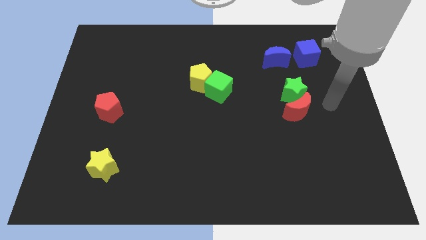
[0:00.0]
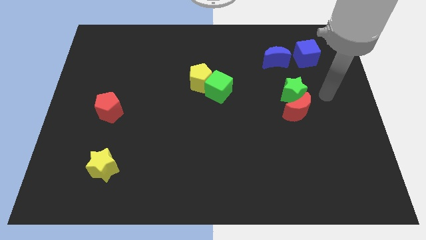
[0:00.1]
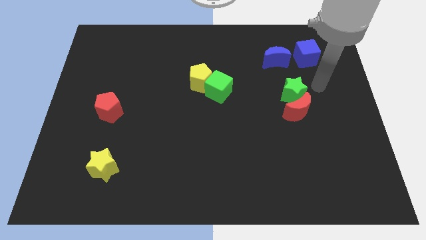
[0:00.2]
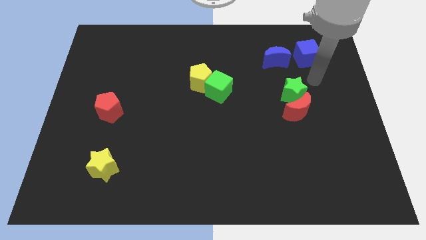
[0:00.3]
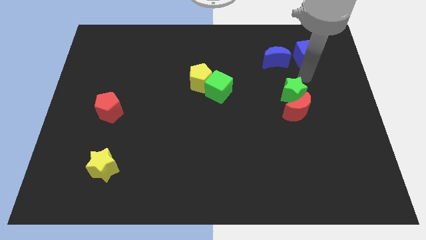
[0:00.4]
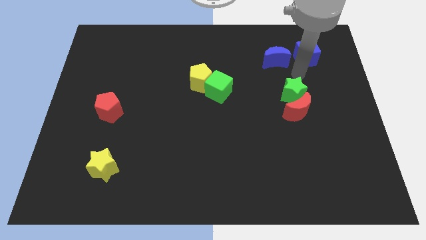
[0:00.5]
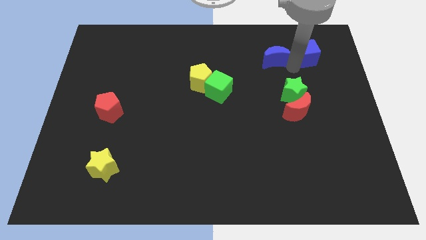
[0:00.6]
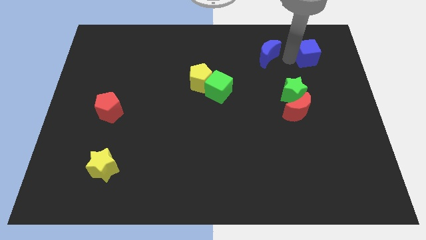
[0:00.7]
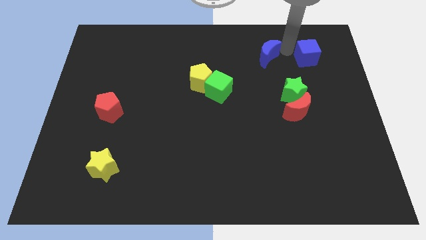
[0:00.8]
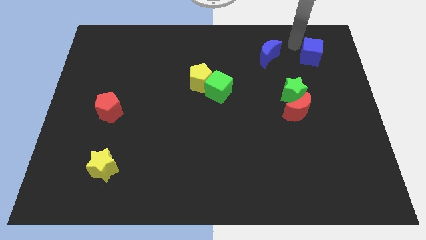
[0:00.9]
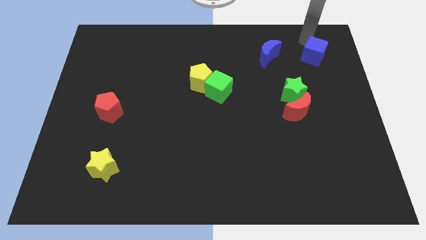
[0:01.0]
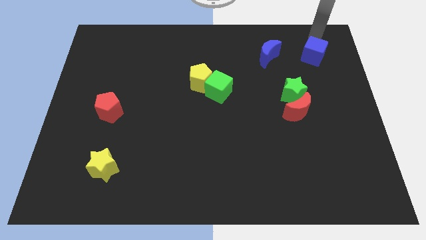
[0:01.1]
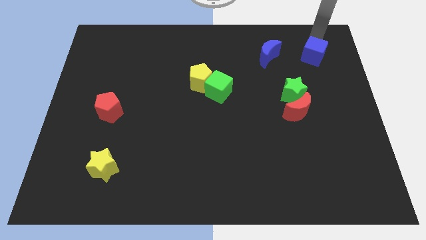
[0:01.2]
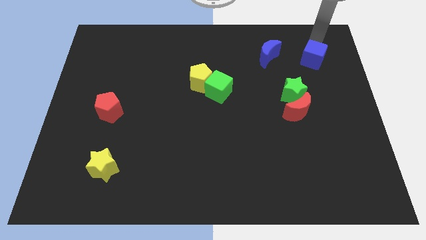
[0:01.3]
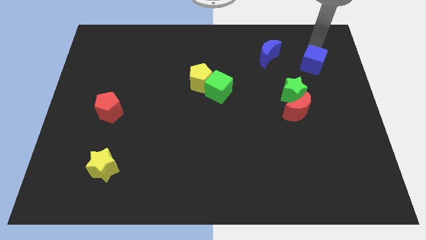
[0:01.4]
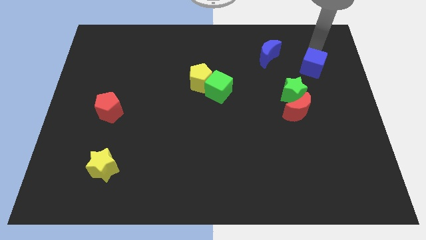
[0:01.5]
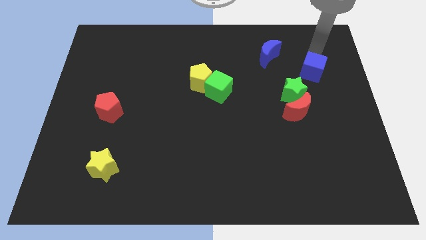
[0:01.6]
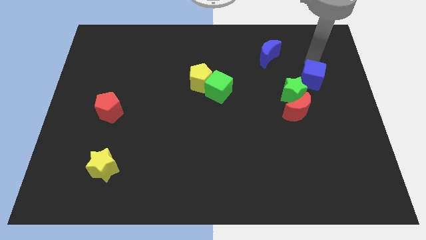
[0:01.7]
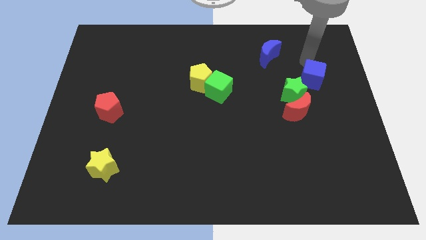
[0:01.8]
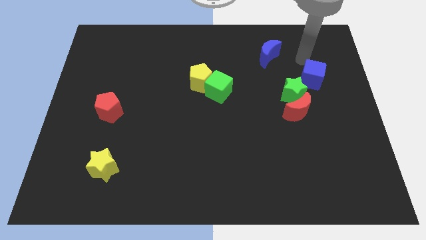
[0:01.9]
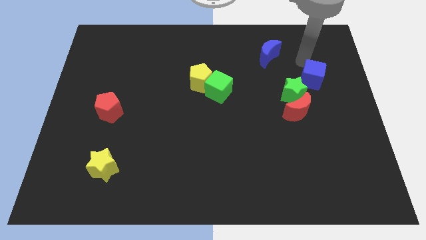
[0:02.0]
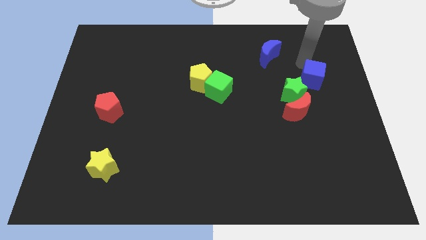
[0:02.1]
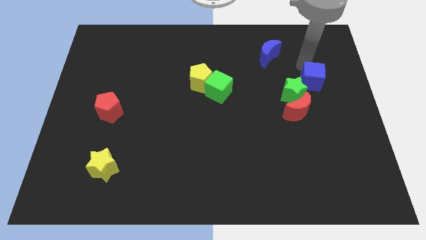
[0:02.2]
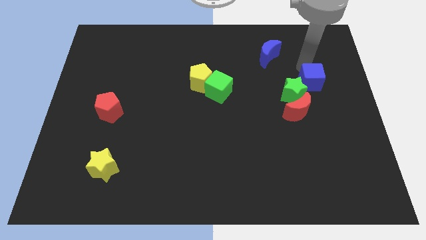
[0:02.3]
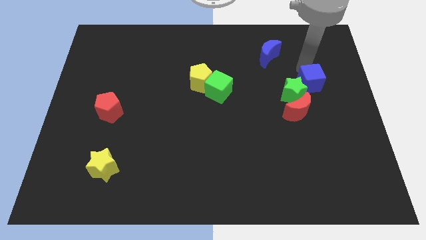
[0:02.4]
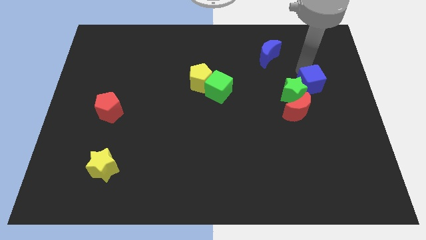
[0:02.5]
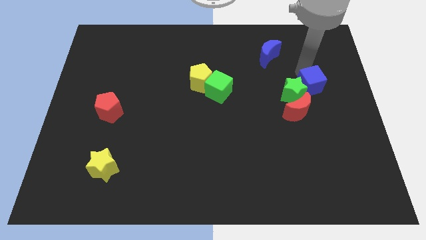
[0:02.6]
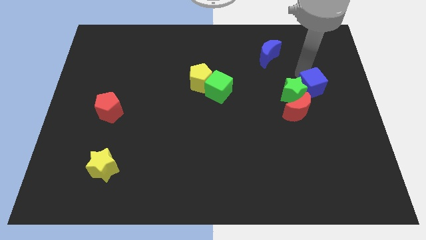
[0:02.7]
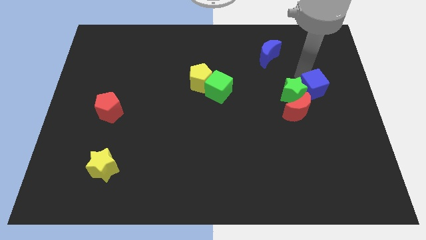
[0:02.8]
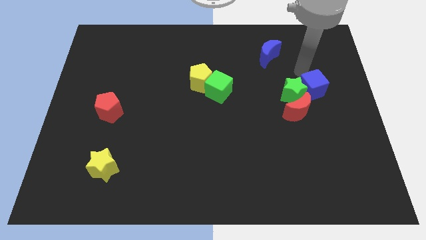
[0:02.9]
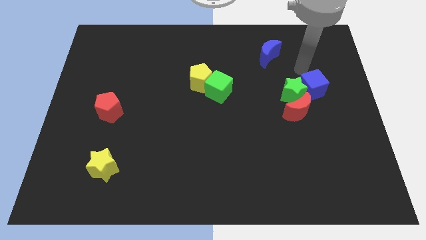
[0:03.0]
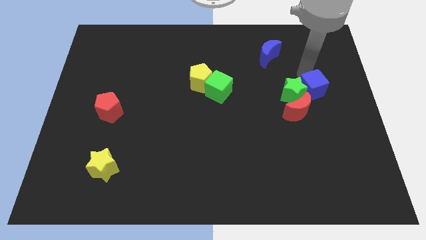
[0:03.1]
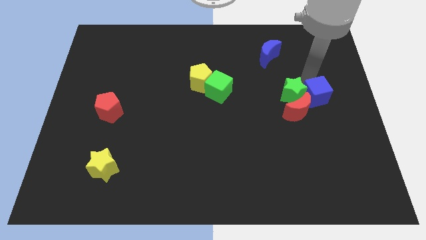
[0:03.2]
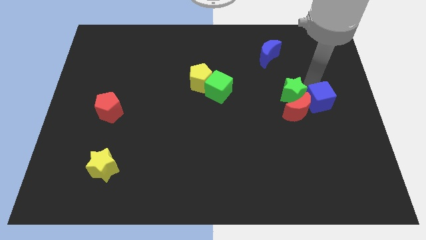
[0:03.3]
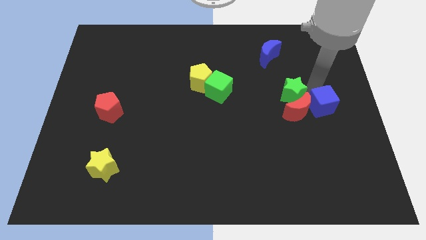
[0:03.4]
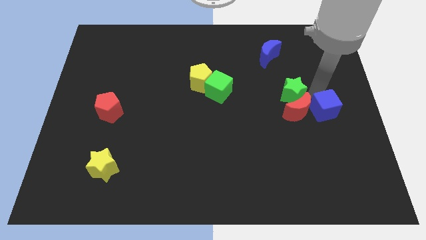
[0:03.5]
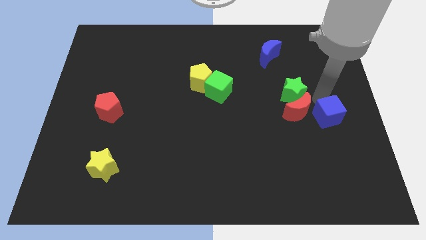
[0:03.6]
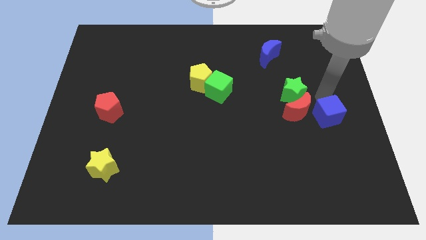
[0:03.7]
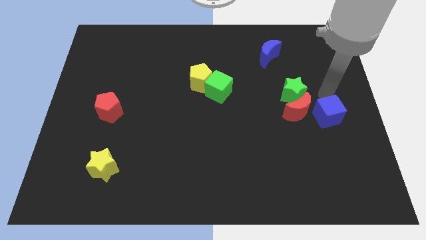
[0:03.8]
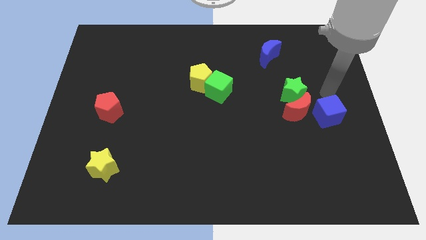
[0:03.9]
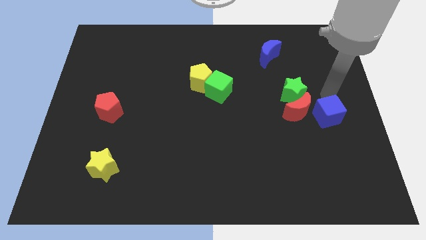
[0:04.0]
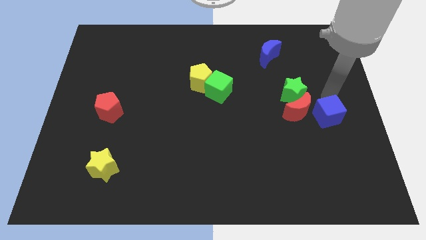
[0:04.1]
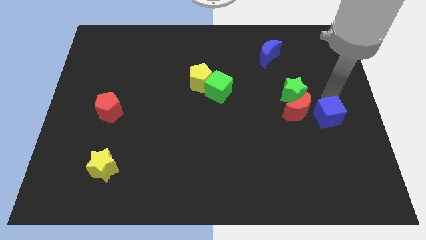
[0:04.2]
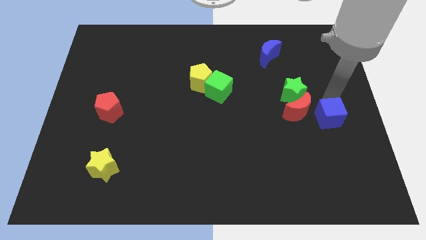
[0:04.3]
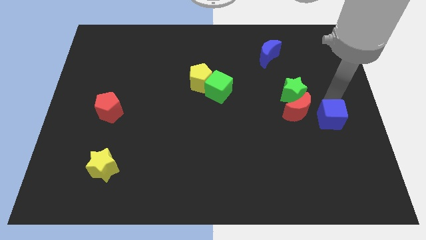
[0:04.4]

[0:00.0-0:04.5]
slide the blue cube downwards

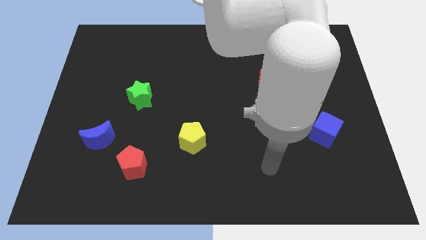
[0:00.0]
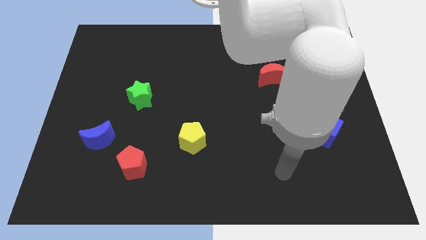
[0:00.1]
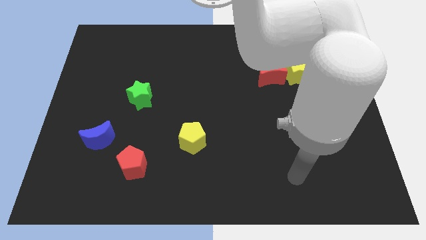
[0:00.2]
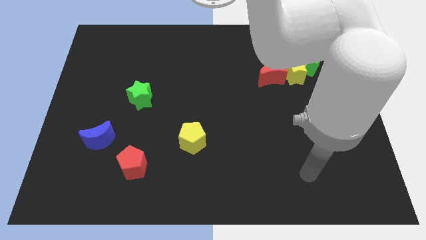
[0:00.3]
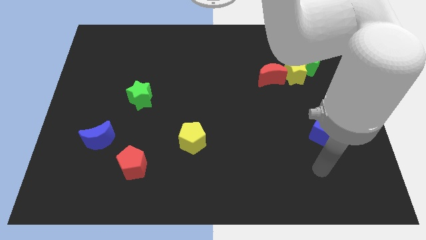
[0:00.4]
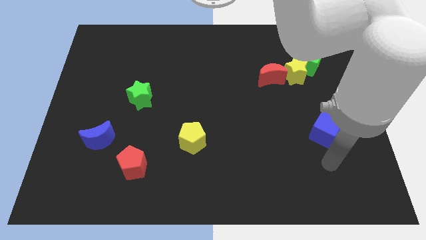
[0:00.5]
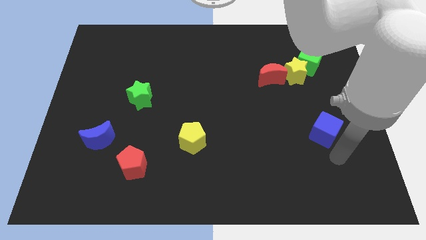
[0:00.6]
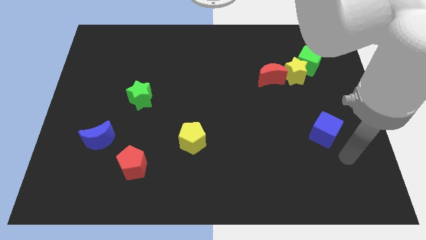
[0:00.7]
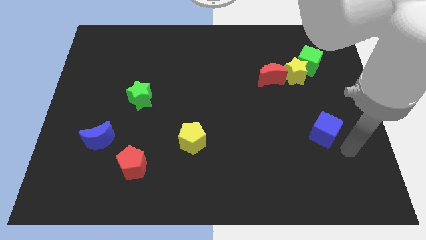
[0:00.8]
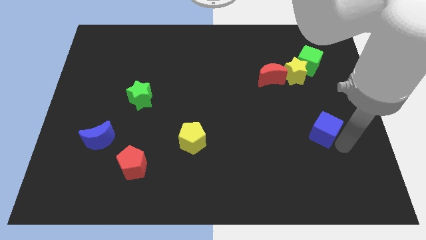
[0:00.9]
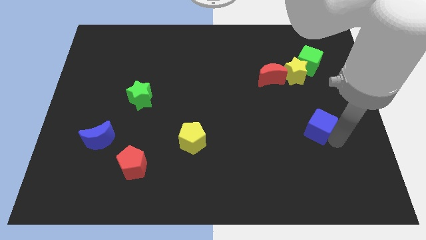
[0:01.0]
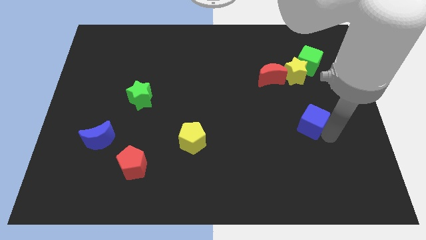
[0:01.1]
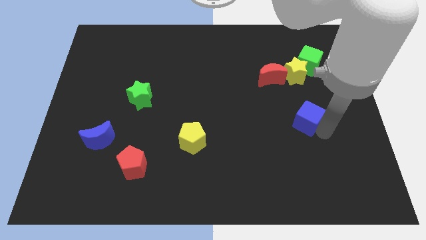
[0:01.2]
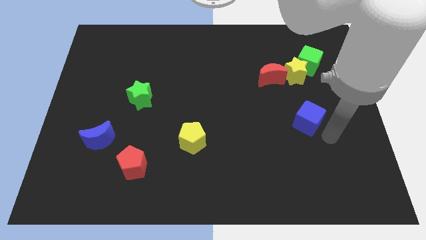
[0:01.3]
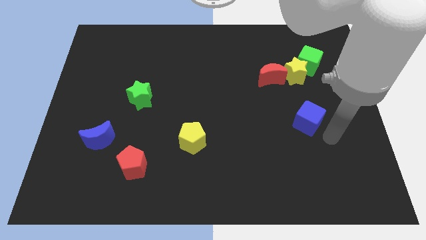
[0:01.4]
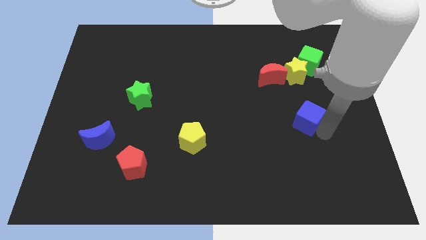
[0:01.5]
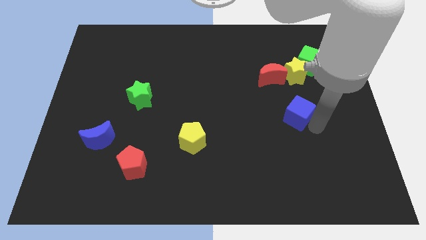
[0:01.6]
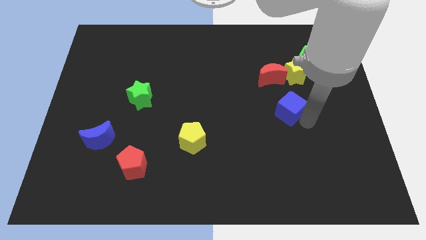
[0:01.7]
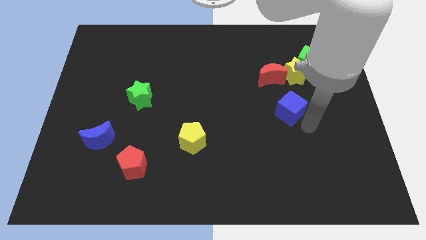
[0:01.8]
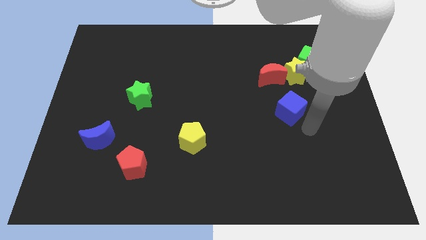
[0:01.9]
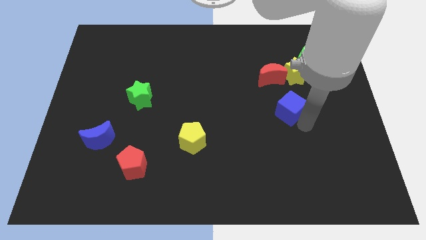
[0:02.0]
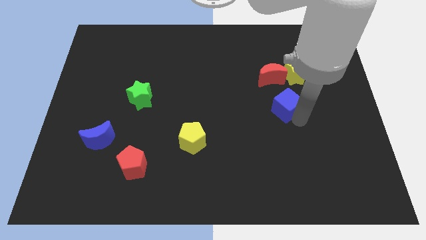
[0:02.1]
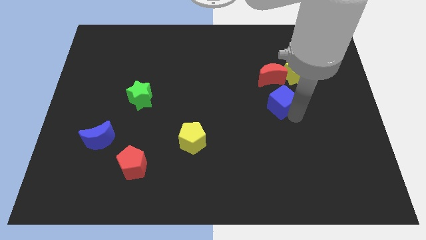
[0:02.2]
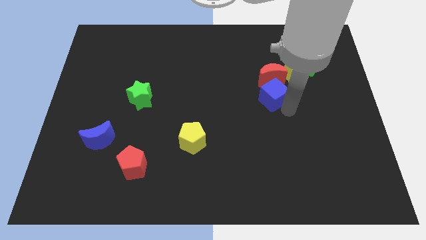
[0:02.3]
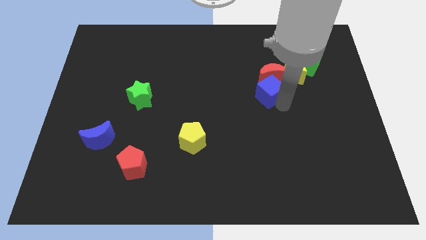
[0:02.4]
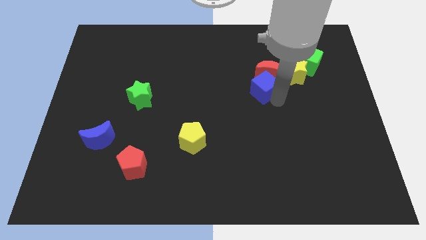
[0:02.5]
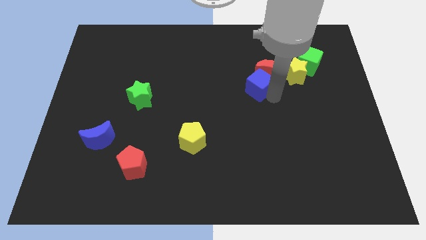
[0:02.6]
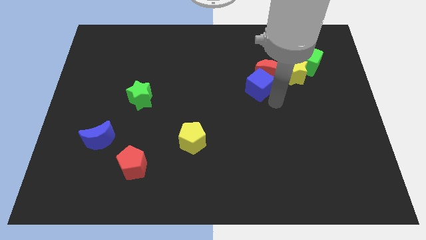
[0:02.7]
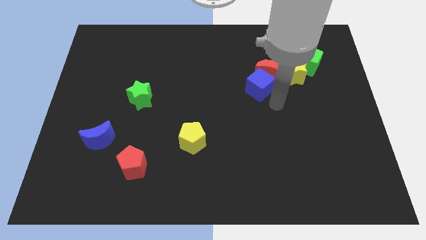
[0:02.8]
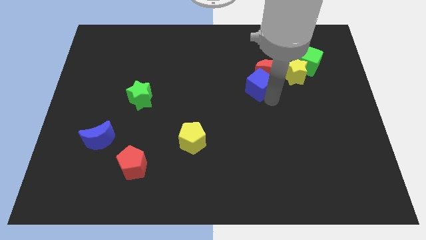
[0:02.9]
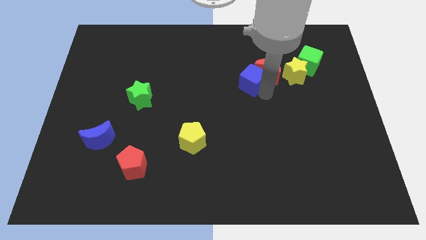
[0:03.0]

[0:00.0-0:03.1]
slide the blue cube up and to the left diagonally
